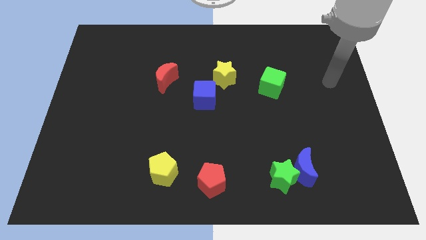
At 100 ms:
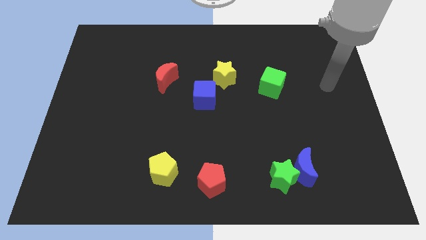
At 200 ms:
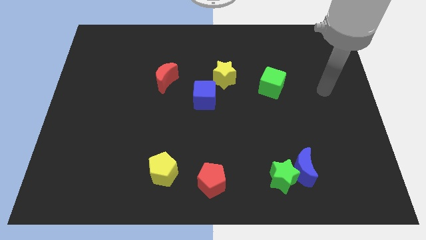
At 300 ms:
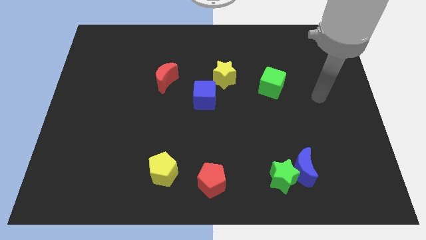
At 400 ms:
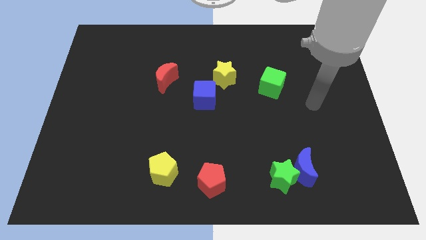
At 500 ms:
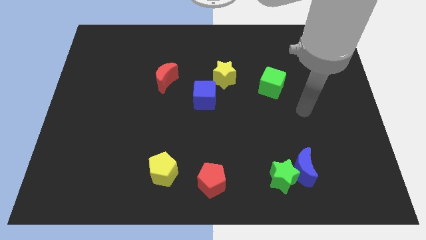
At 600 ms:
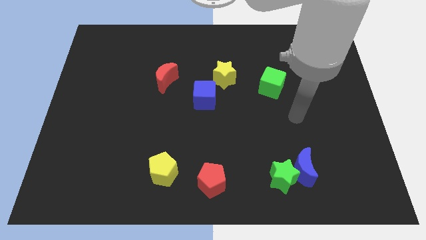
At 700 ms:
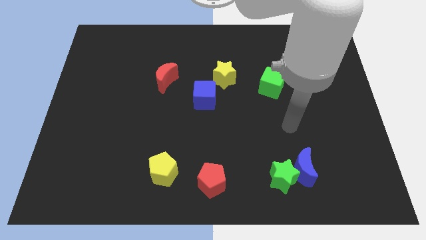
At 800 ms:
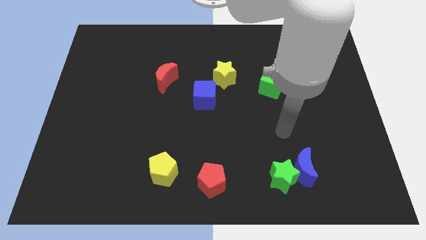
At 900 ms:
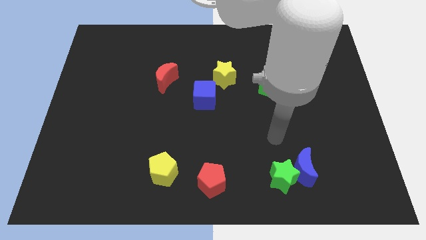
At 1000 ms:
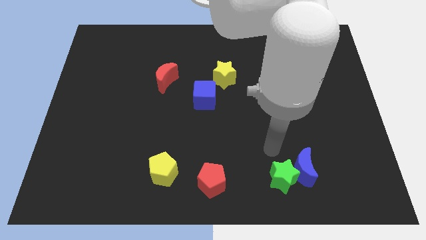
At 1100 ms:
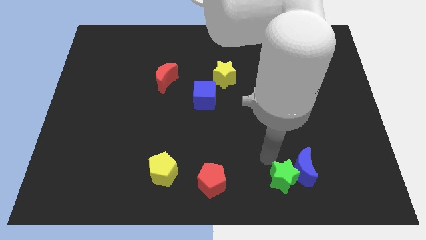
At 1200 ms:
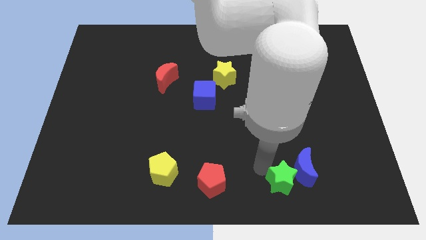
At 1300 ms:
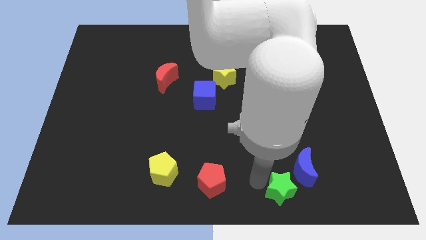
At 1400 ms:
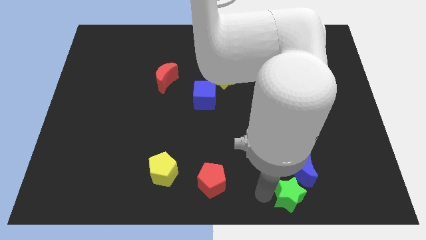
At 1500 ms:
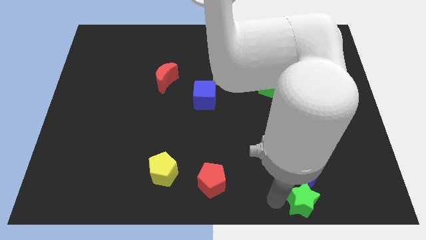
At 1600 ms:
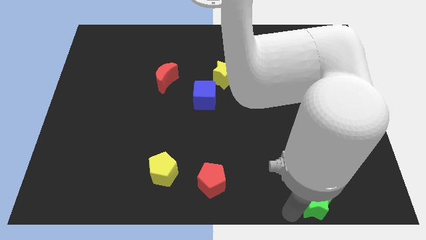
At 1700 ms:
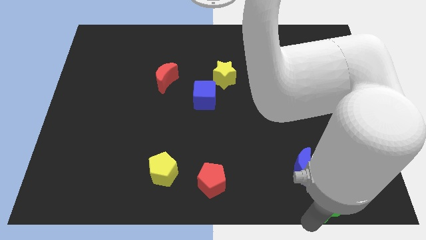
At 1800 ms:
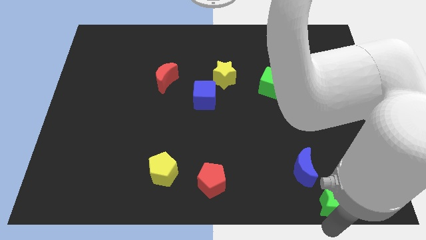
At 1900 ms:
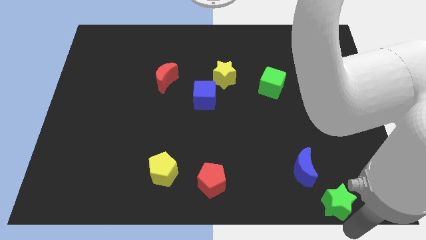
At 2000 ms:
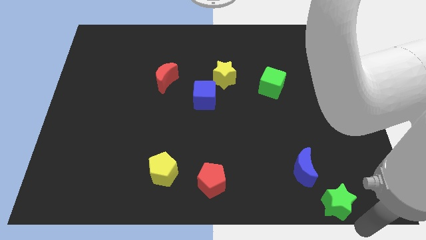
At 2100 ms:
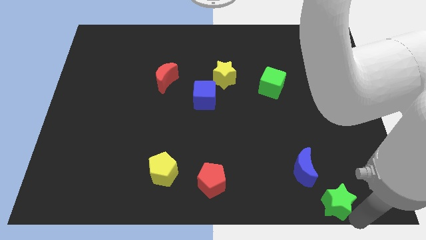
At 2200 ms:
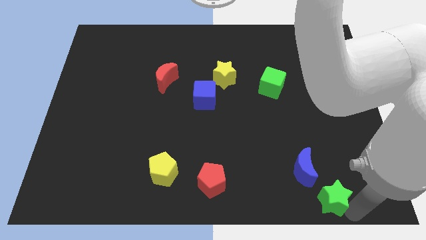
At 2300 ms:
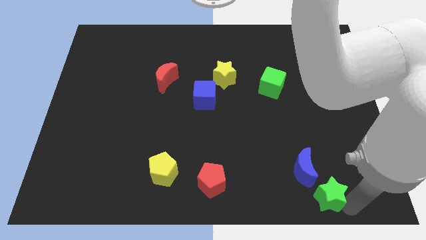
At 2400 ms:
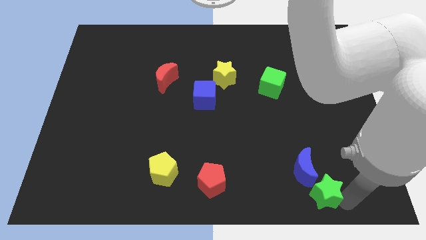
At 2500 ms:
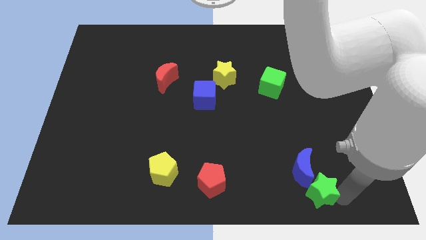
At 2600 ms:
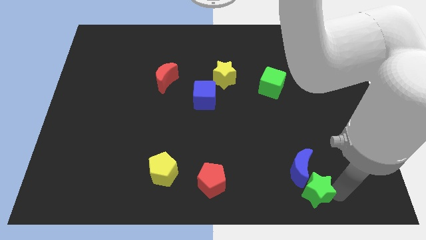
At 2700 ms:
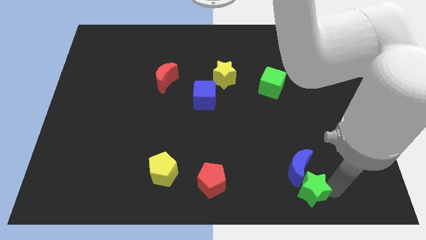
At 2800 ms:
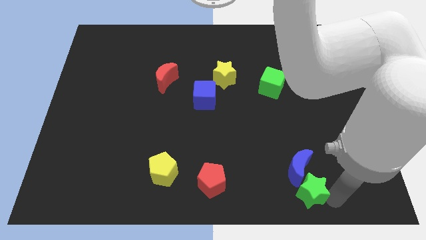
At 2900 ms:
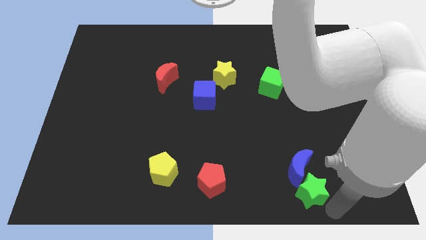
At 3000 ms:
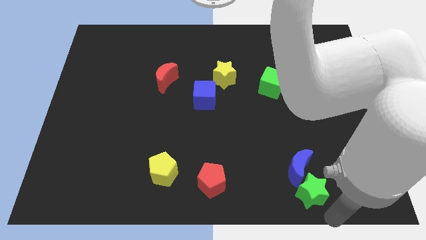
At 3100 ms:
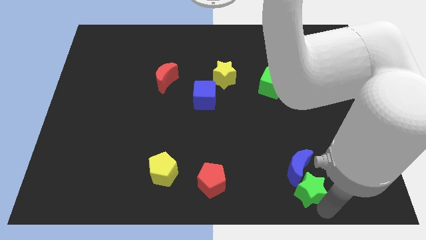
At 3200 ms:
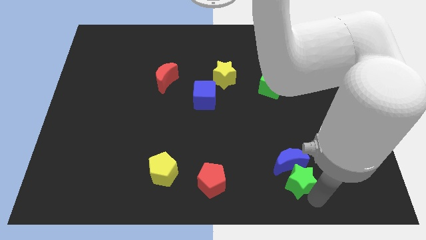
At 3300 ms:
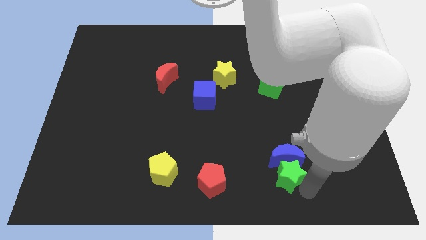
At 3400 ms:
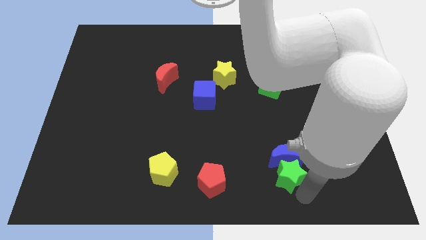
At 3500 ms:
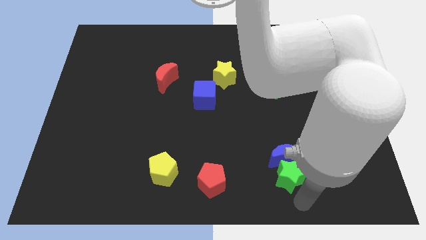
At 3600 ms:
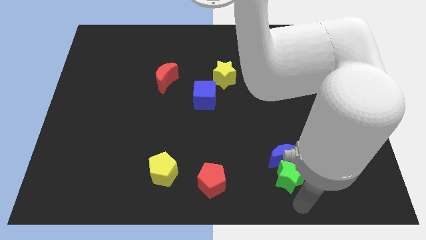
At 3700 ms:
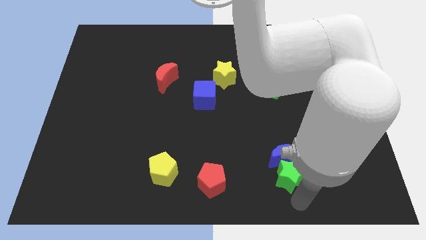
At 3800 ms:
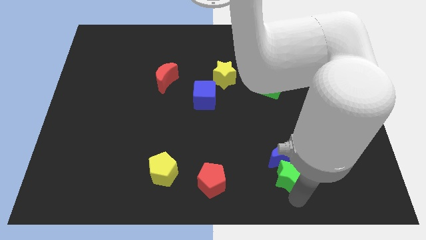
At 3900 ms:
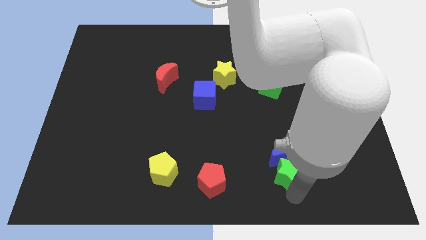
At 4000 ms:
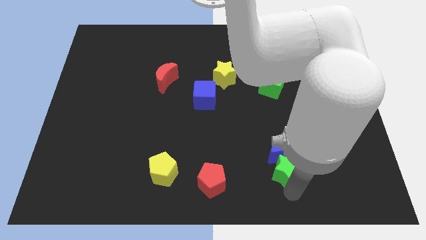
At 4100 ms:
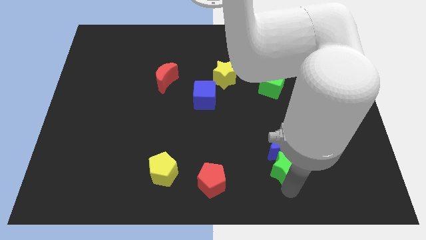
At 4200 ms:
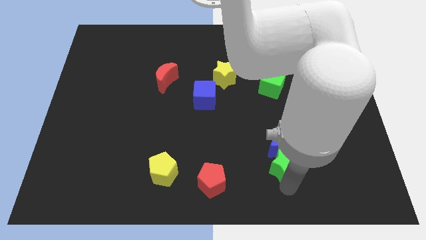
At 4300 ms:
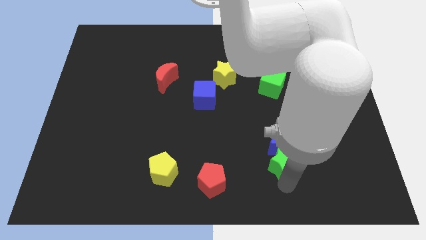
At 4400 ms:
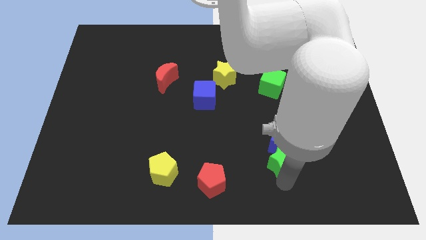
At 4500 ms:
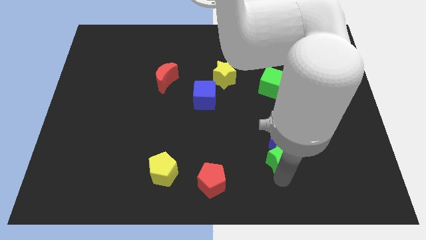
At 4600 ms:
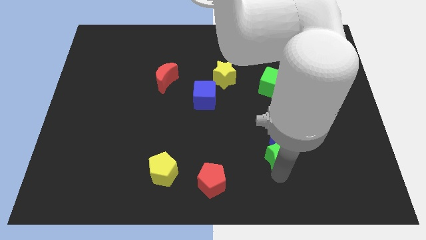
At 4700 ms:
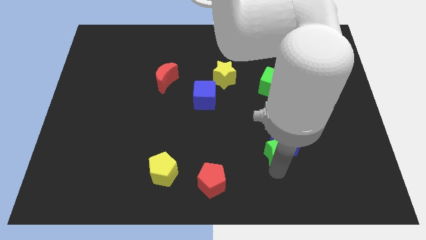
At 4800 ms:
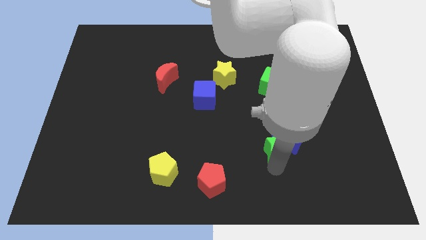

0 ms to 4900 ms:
slightly slide the green star upwards

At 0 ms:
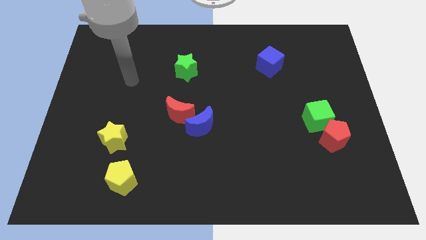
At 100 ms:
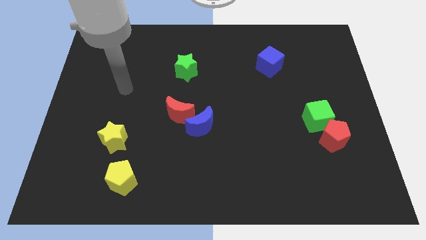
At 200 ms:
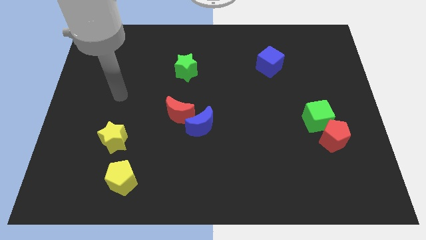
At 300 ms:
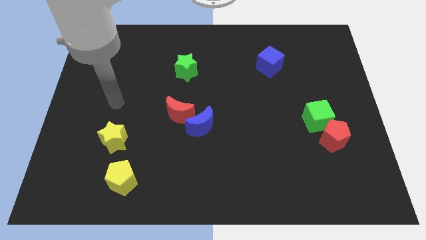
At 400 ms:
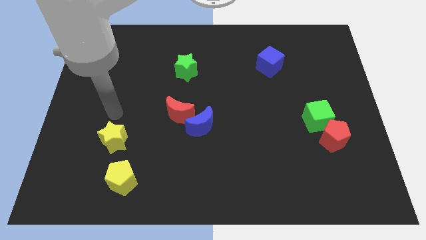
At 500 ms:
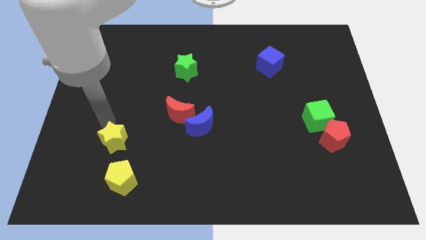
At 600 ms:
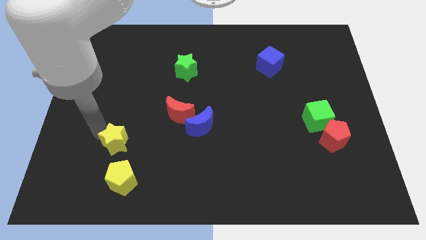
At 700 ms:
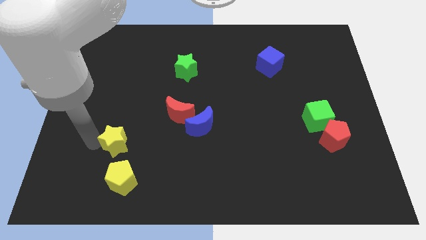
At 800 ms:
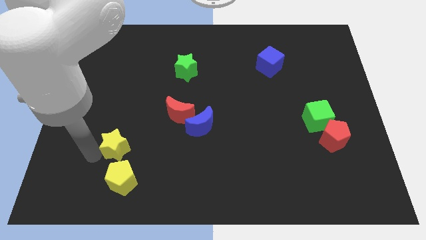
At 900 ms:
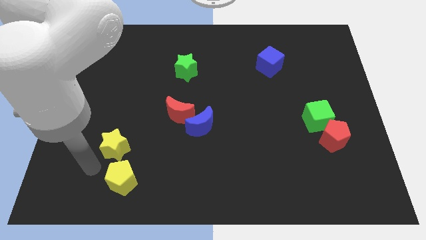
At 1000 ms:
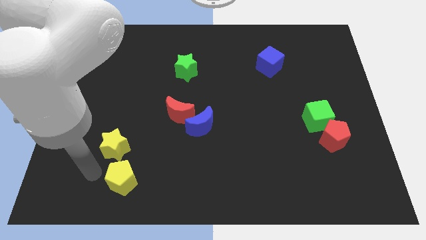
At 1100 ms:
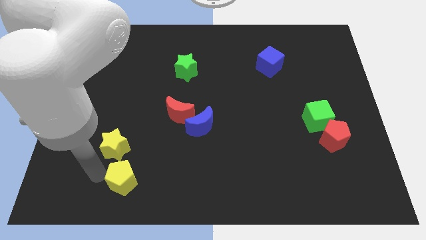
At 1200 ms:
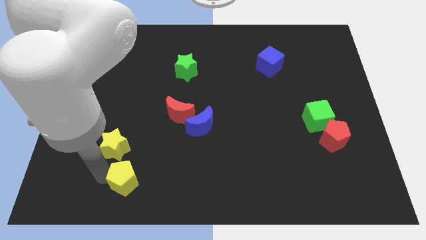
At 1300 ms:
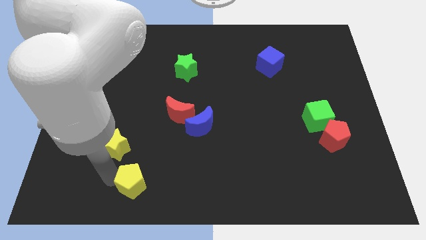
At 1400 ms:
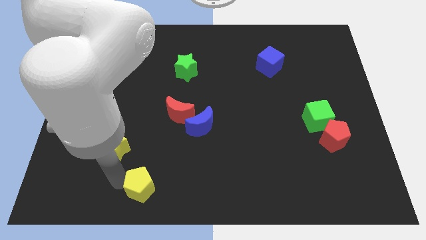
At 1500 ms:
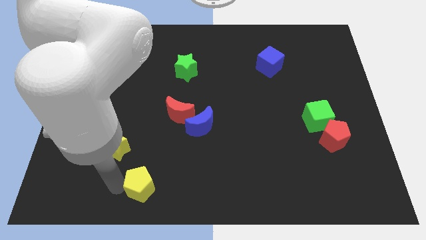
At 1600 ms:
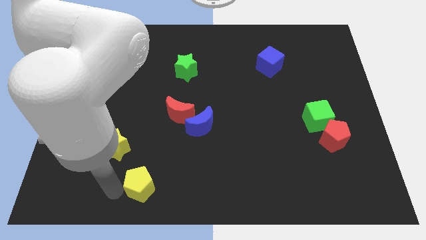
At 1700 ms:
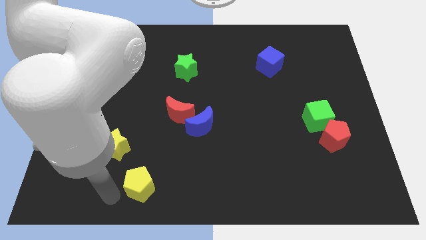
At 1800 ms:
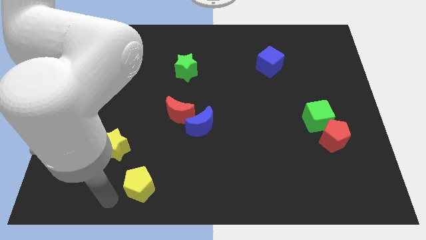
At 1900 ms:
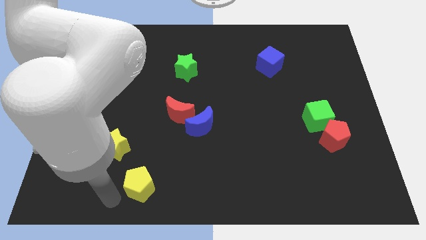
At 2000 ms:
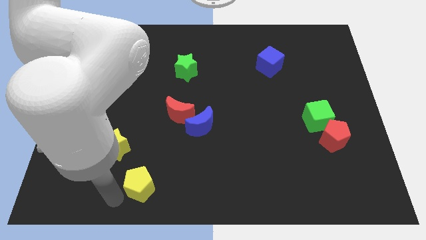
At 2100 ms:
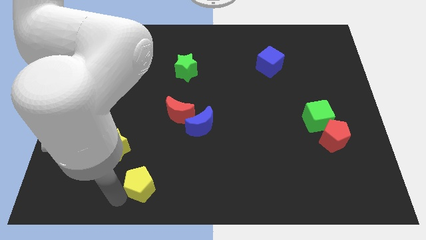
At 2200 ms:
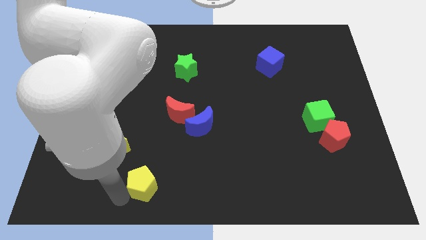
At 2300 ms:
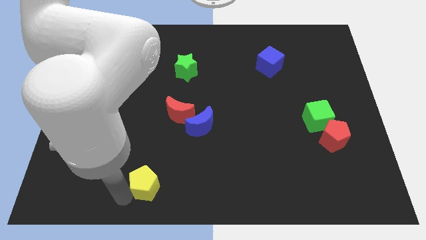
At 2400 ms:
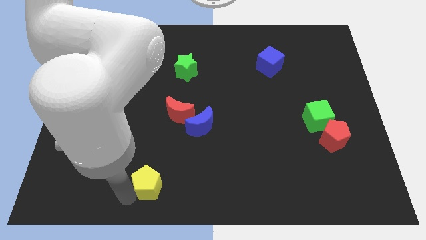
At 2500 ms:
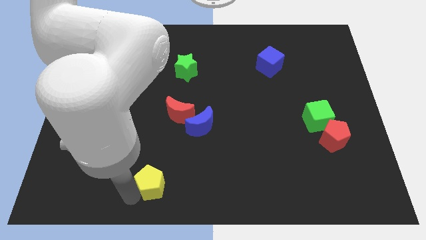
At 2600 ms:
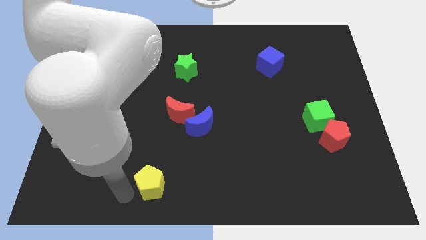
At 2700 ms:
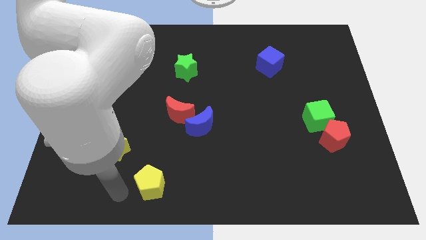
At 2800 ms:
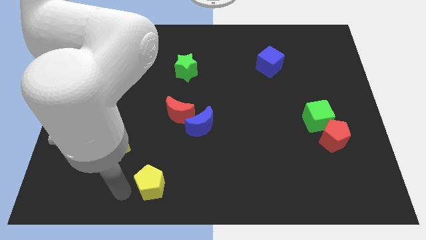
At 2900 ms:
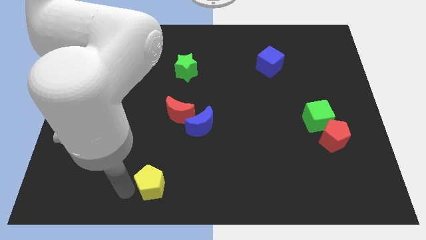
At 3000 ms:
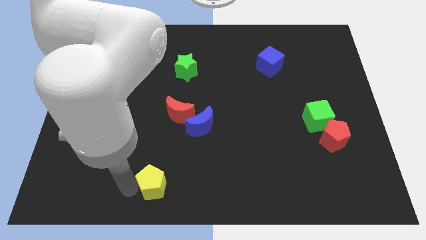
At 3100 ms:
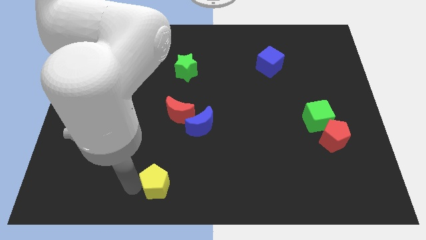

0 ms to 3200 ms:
slightly move the yellow pentagon to the right

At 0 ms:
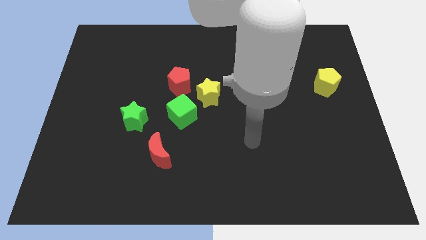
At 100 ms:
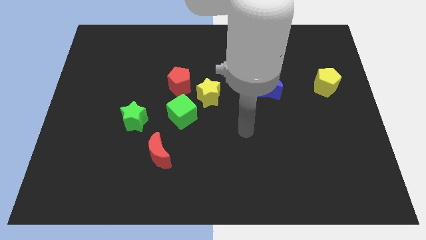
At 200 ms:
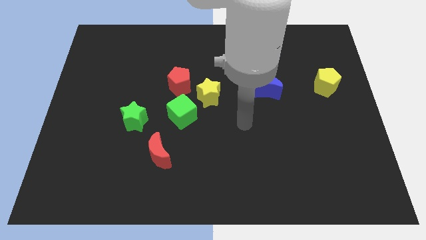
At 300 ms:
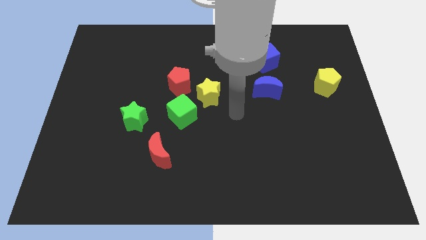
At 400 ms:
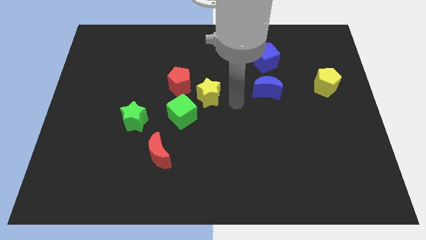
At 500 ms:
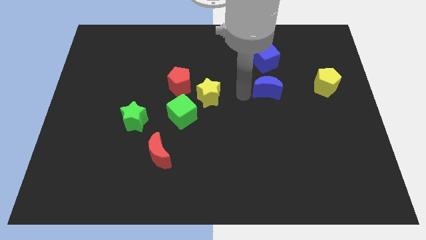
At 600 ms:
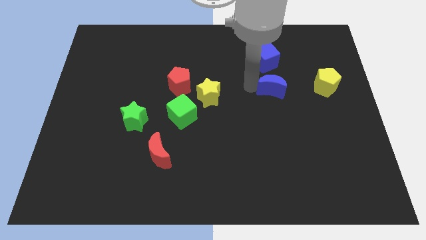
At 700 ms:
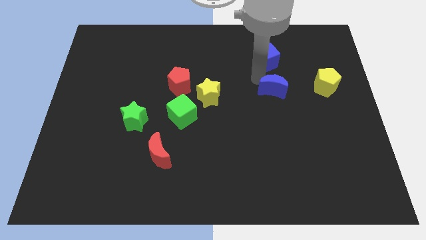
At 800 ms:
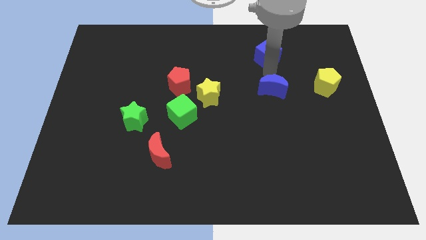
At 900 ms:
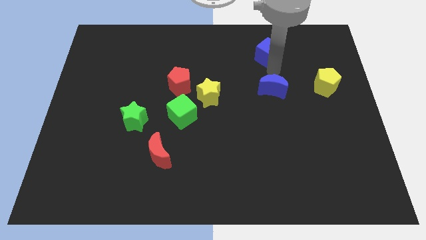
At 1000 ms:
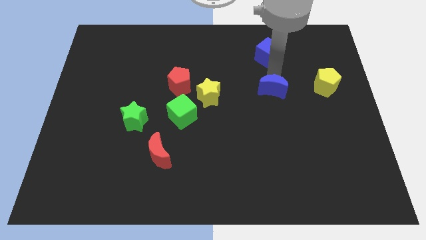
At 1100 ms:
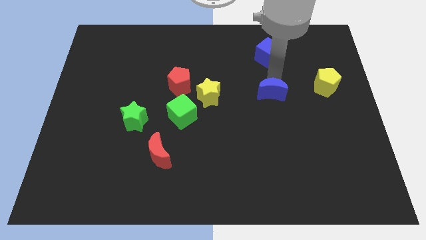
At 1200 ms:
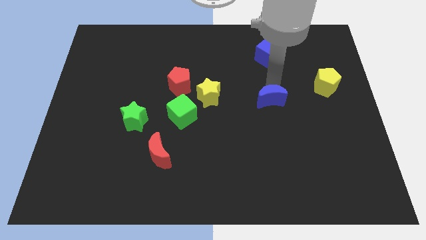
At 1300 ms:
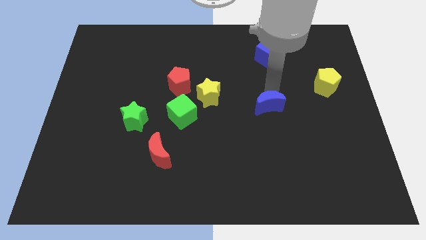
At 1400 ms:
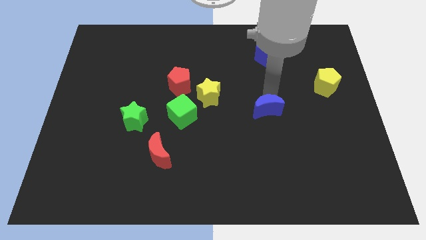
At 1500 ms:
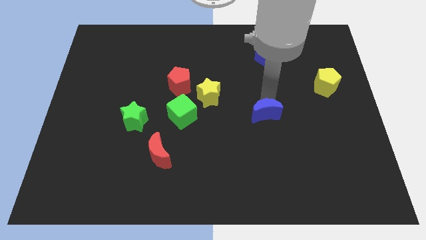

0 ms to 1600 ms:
move the blue moon down a little bit
